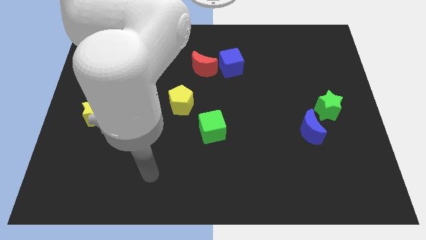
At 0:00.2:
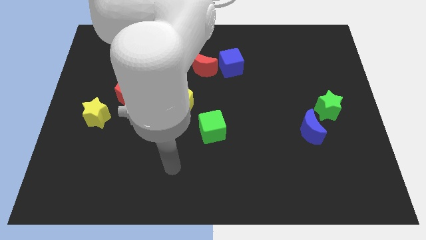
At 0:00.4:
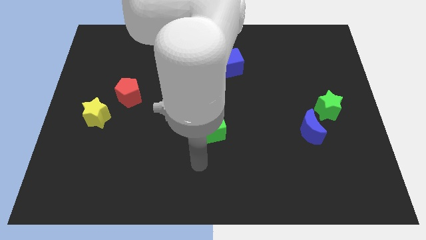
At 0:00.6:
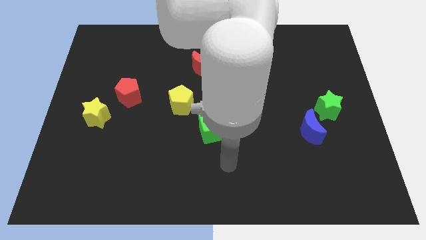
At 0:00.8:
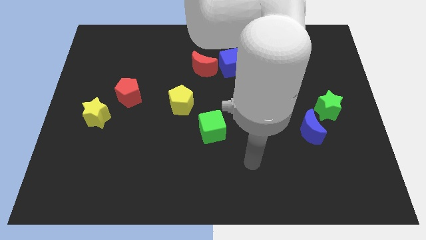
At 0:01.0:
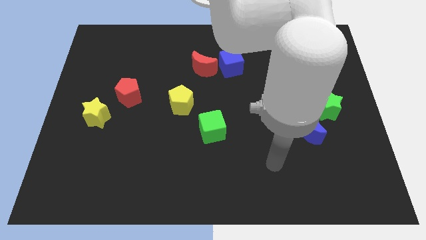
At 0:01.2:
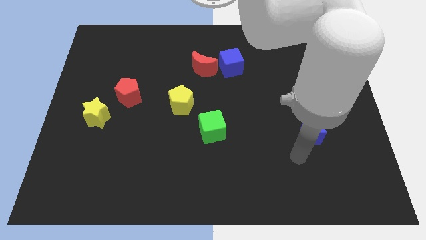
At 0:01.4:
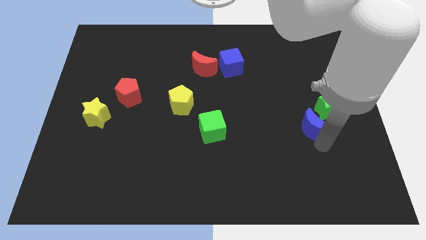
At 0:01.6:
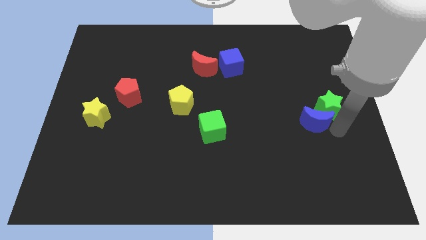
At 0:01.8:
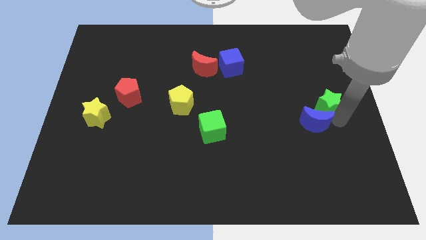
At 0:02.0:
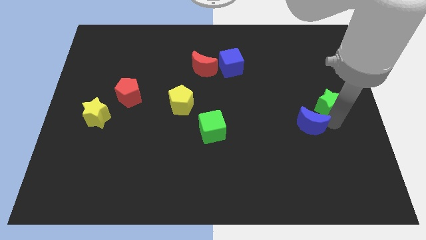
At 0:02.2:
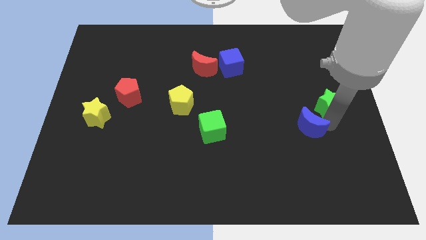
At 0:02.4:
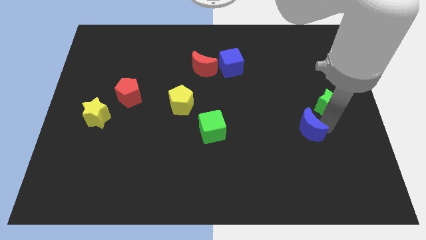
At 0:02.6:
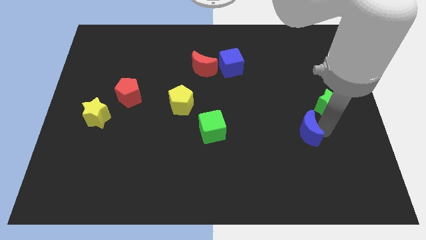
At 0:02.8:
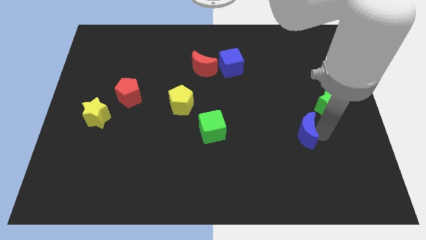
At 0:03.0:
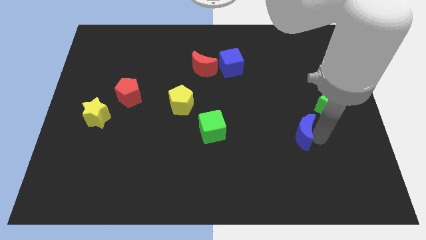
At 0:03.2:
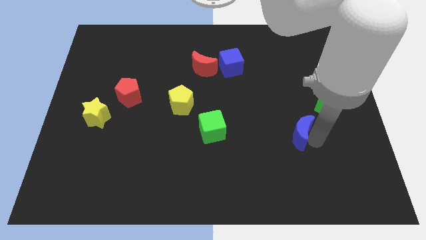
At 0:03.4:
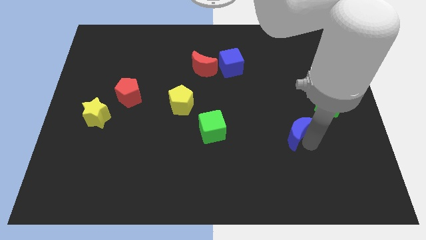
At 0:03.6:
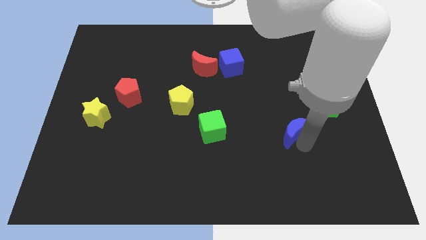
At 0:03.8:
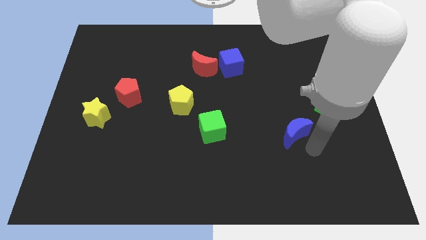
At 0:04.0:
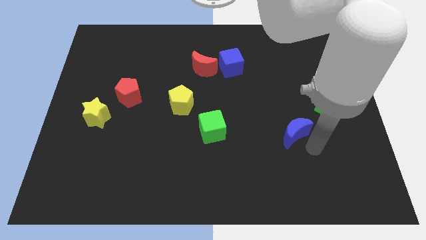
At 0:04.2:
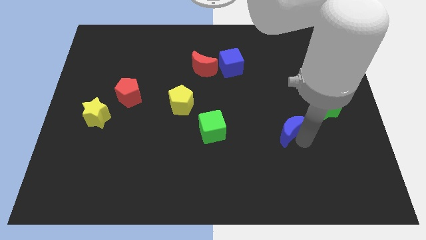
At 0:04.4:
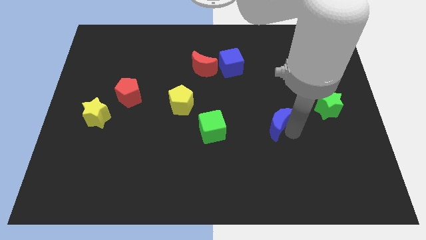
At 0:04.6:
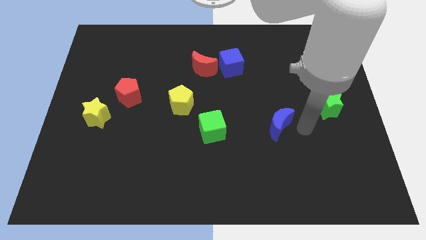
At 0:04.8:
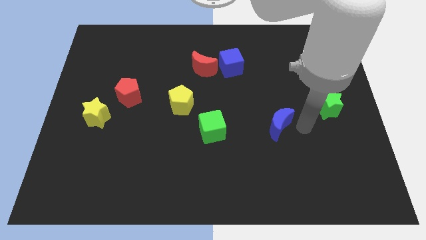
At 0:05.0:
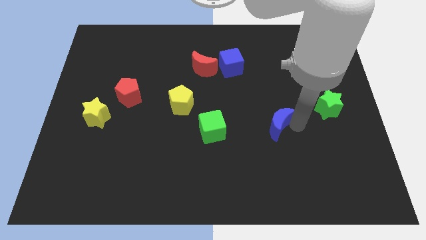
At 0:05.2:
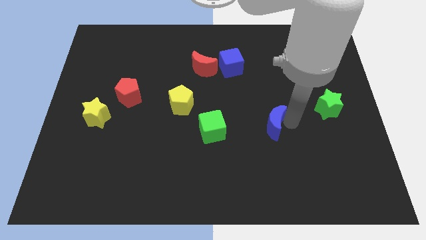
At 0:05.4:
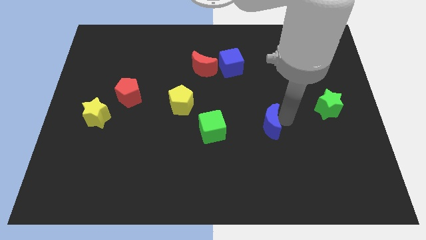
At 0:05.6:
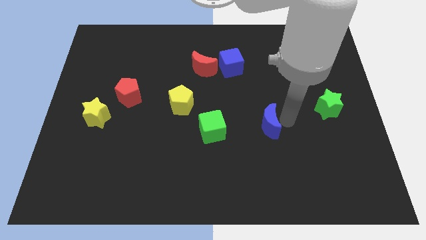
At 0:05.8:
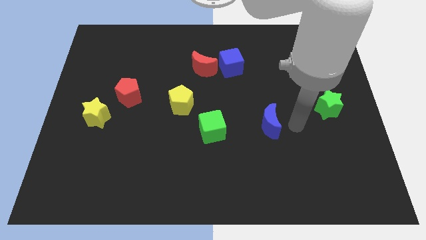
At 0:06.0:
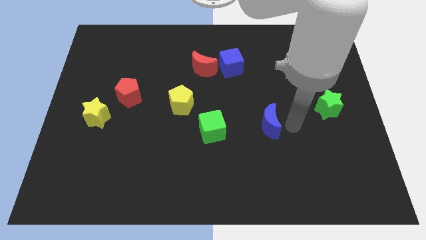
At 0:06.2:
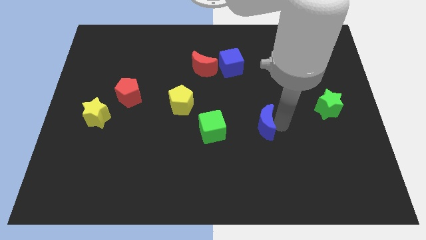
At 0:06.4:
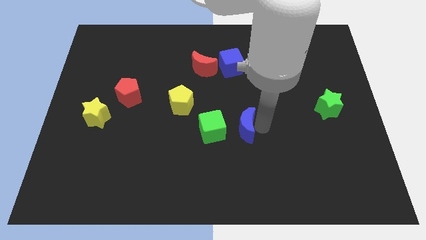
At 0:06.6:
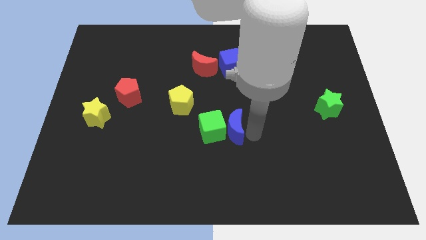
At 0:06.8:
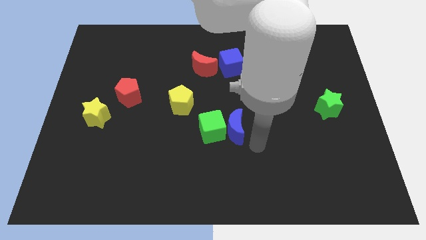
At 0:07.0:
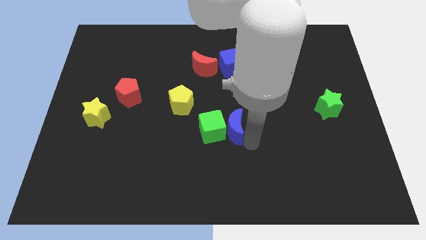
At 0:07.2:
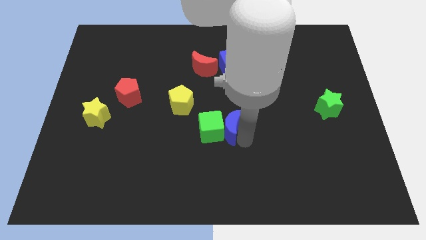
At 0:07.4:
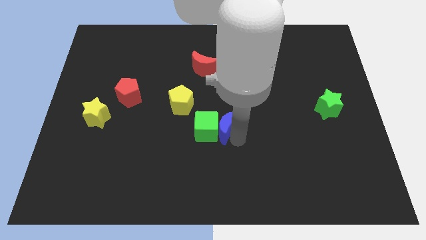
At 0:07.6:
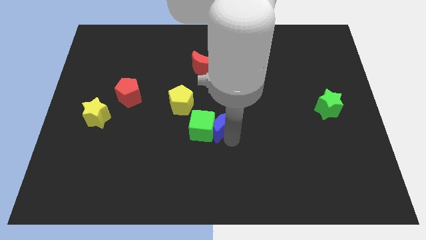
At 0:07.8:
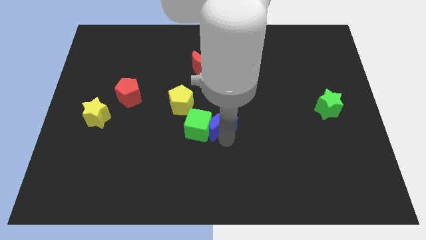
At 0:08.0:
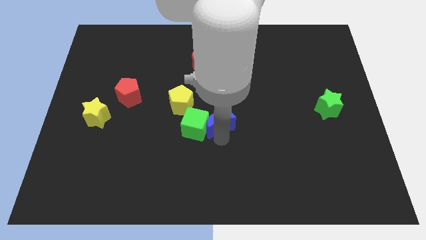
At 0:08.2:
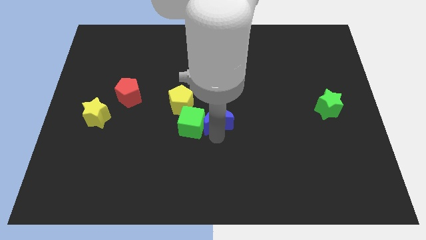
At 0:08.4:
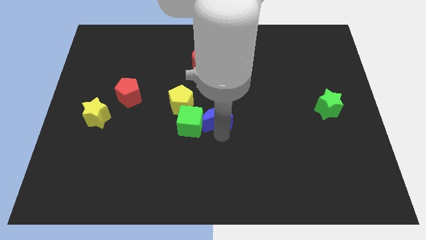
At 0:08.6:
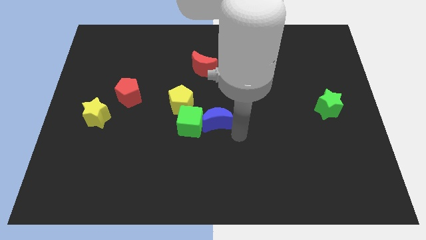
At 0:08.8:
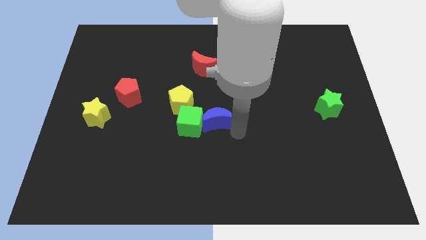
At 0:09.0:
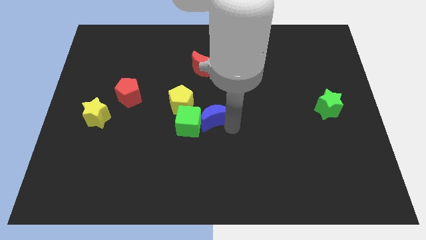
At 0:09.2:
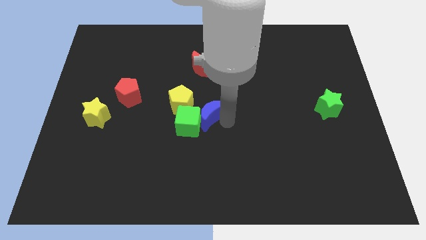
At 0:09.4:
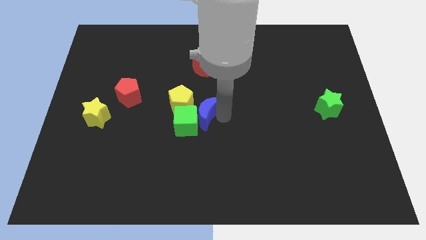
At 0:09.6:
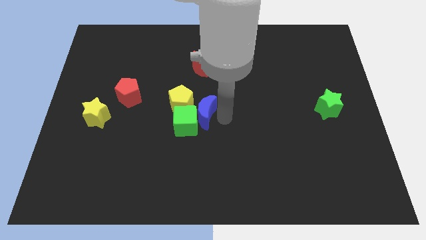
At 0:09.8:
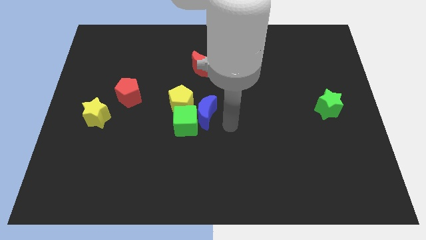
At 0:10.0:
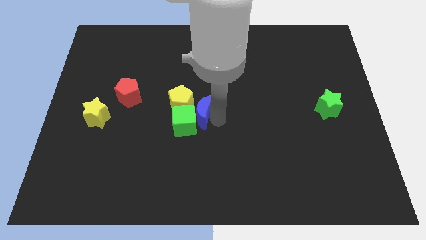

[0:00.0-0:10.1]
push the blue moon close to the yellow pentagon

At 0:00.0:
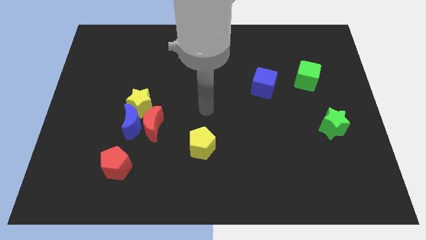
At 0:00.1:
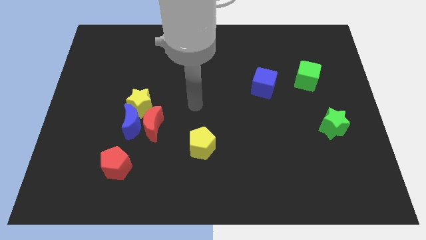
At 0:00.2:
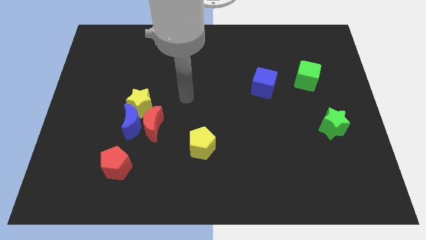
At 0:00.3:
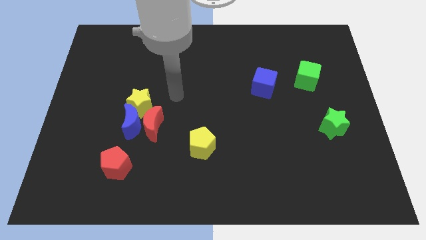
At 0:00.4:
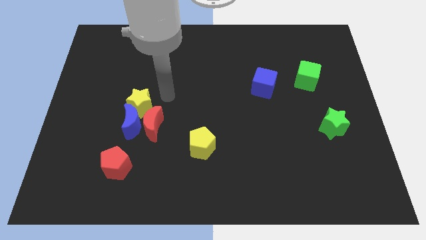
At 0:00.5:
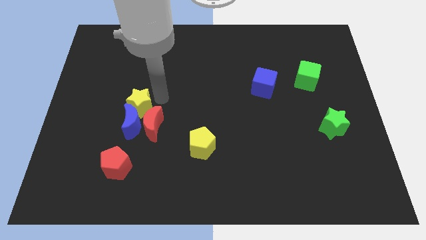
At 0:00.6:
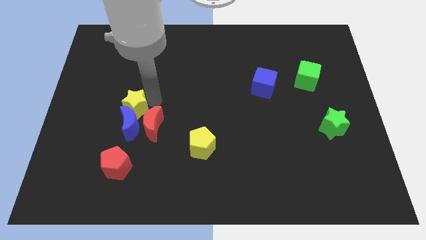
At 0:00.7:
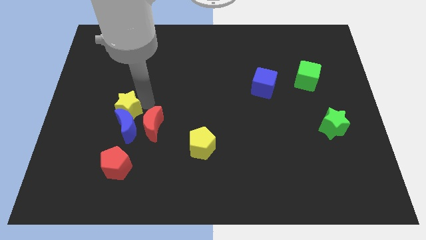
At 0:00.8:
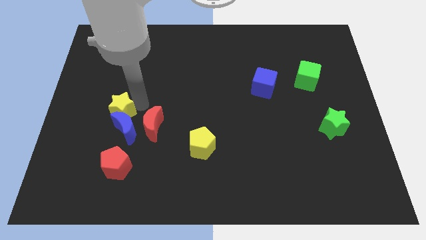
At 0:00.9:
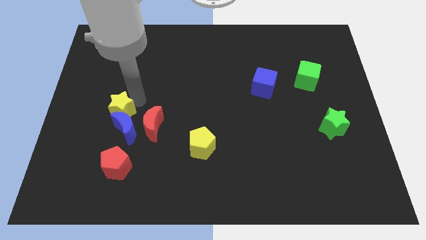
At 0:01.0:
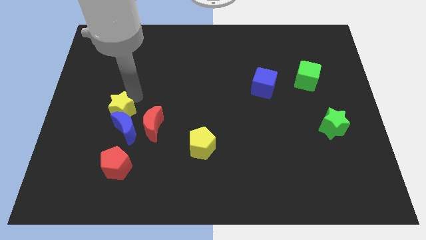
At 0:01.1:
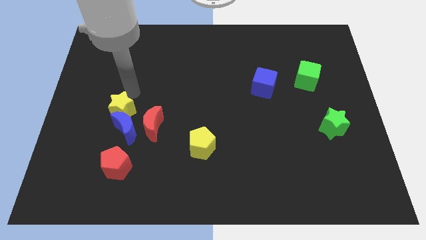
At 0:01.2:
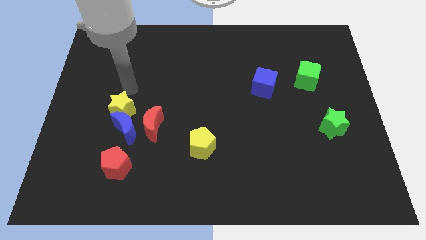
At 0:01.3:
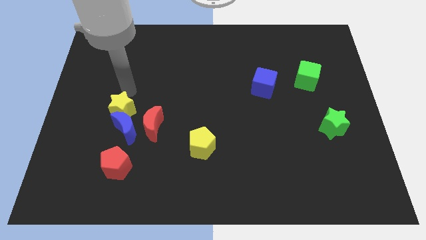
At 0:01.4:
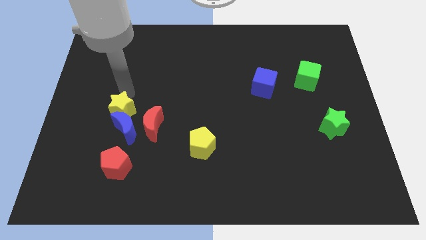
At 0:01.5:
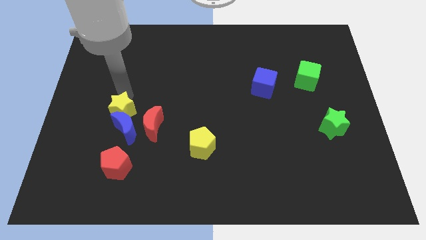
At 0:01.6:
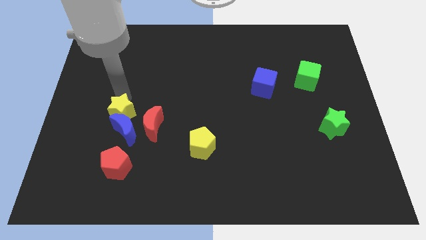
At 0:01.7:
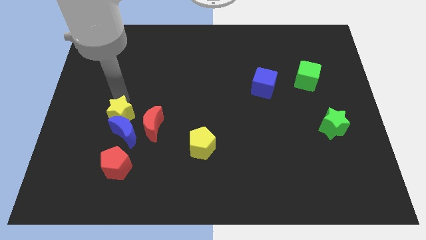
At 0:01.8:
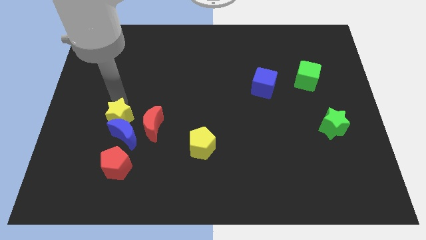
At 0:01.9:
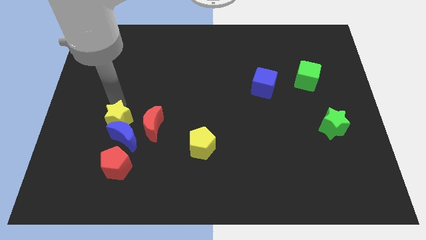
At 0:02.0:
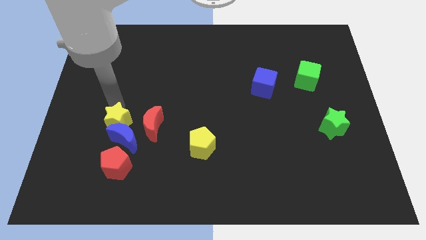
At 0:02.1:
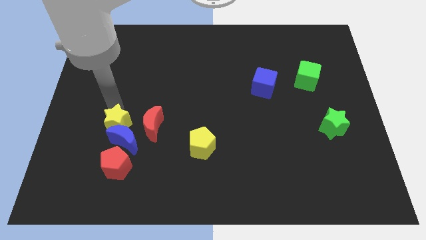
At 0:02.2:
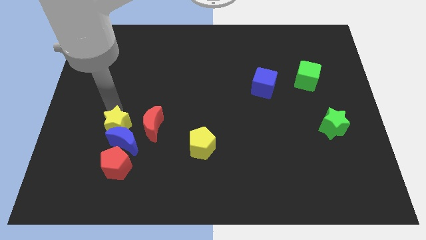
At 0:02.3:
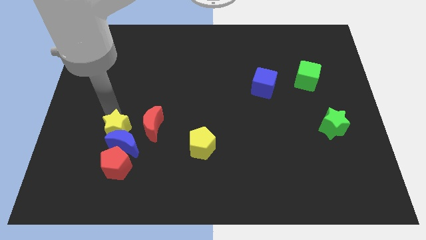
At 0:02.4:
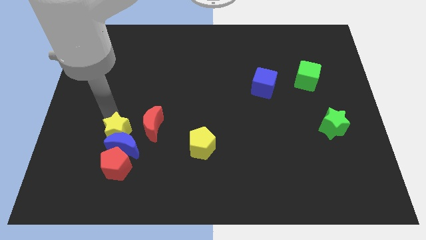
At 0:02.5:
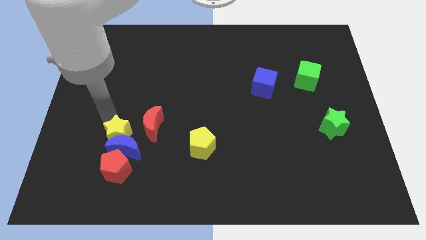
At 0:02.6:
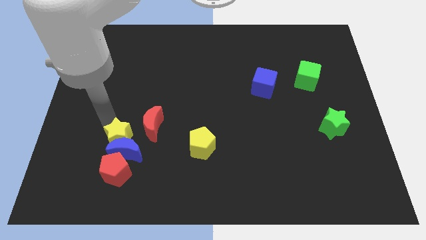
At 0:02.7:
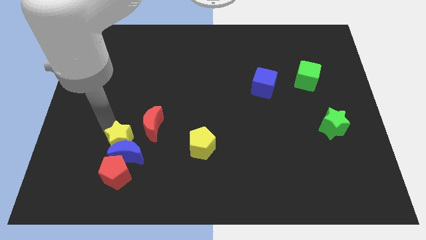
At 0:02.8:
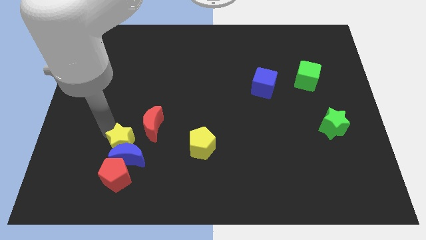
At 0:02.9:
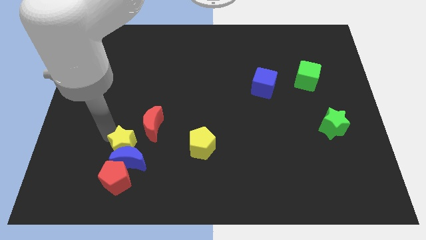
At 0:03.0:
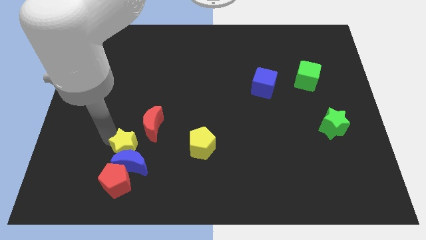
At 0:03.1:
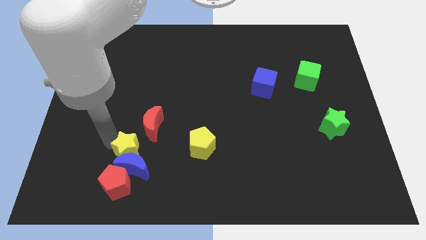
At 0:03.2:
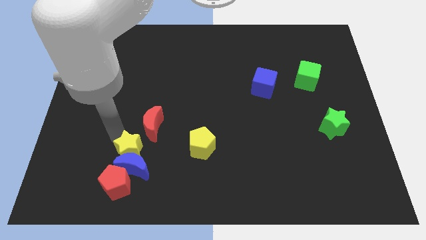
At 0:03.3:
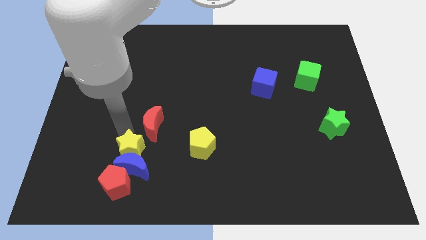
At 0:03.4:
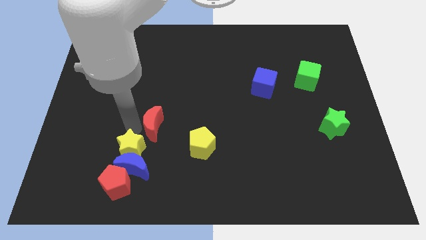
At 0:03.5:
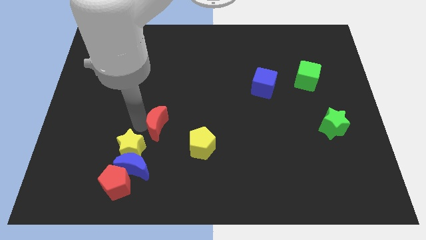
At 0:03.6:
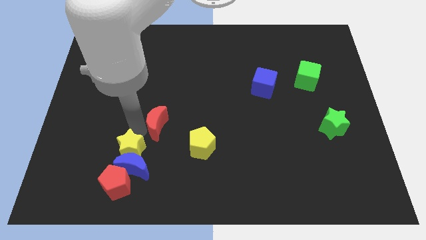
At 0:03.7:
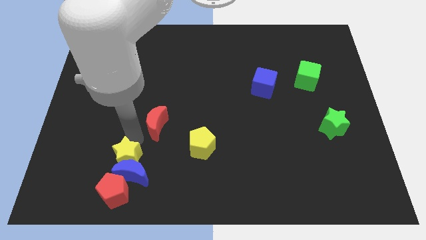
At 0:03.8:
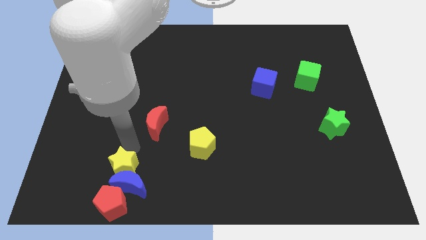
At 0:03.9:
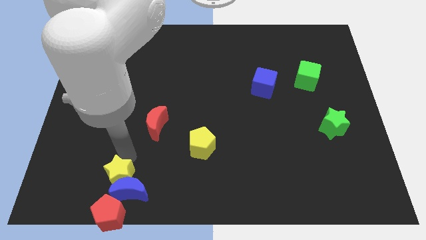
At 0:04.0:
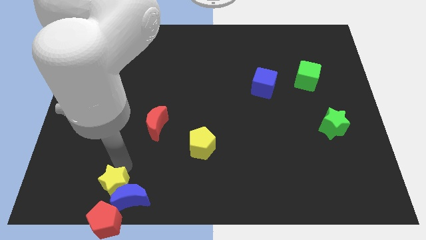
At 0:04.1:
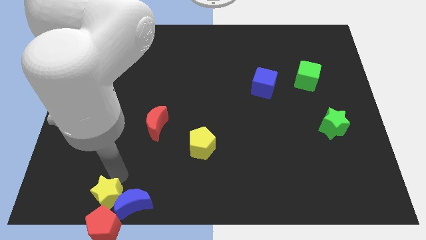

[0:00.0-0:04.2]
move the yellow star to the red pentagon
